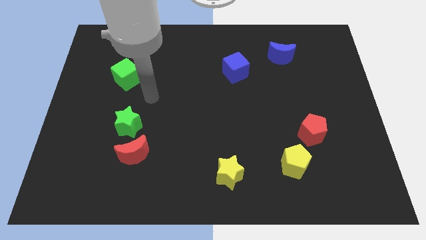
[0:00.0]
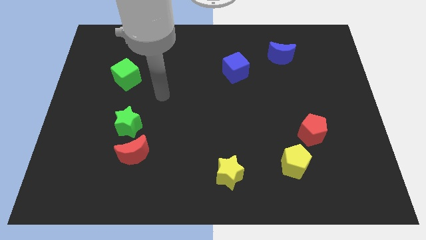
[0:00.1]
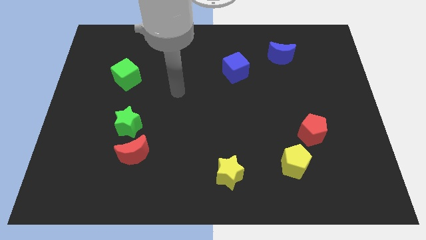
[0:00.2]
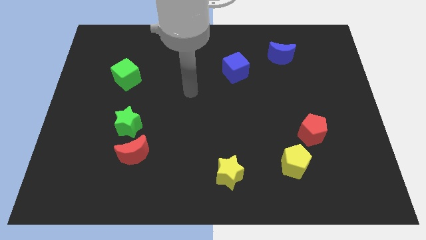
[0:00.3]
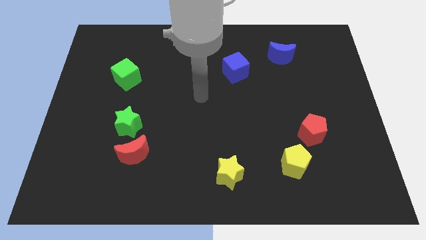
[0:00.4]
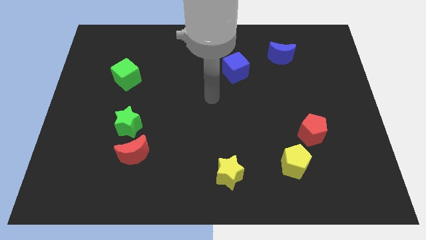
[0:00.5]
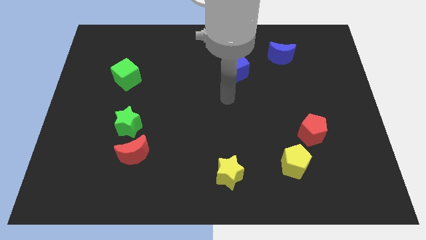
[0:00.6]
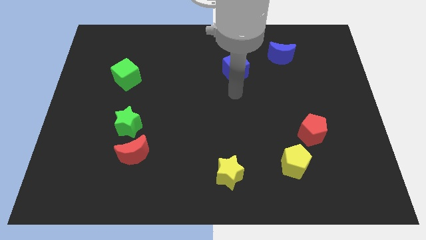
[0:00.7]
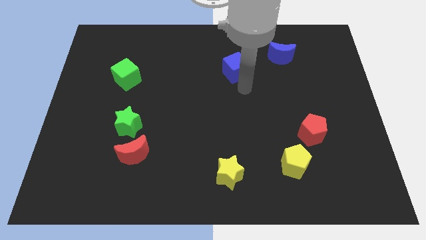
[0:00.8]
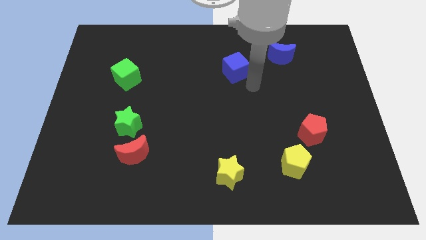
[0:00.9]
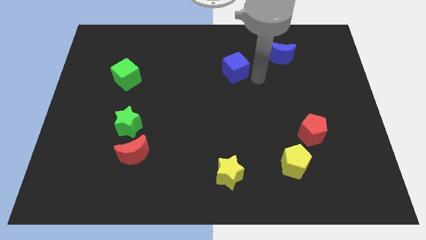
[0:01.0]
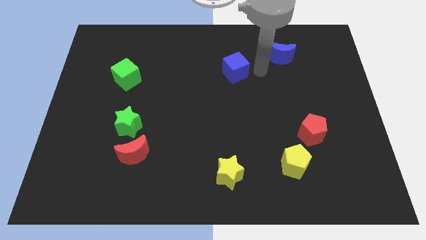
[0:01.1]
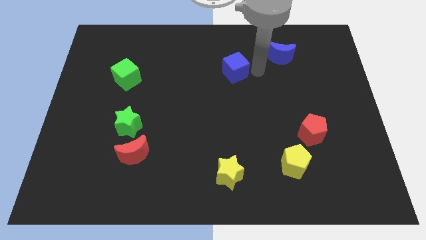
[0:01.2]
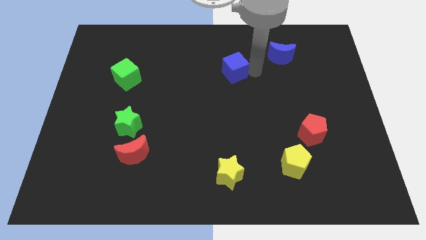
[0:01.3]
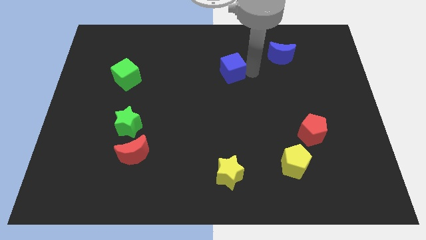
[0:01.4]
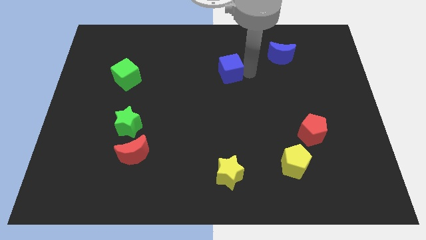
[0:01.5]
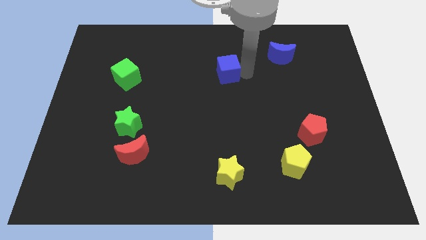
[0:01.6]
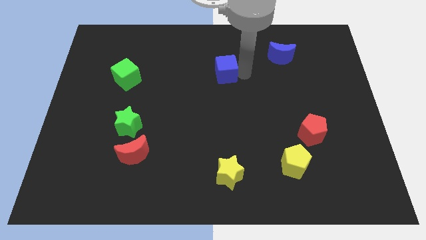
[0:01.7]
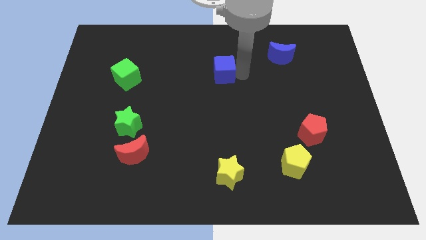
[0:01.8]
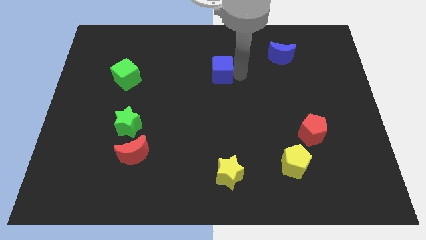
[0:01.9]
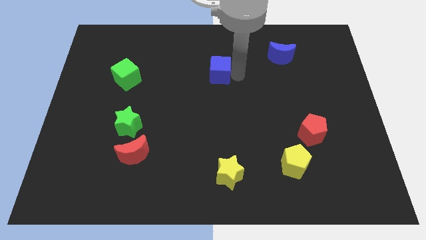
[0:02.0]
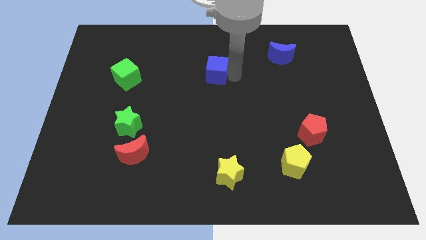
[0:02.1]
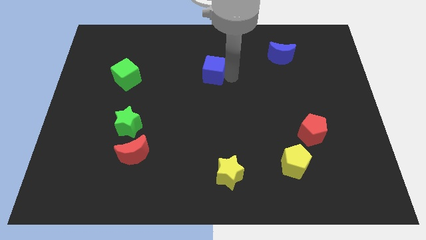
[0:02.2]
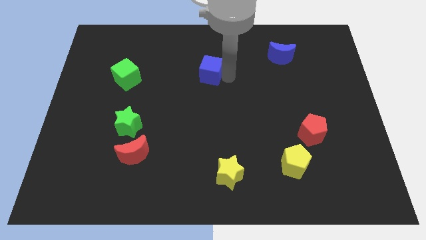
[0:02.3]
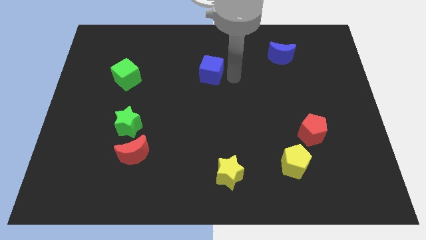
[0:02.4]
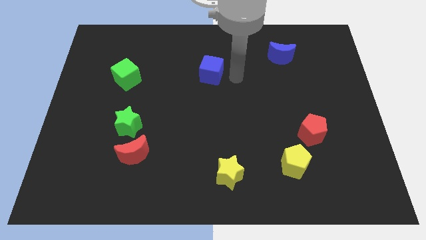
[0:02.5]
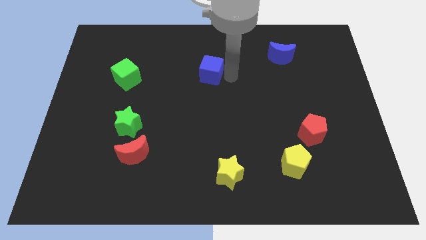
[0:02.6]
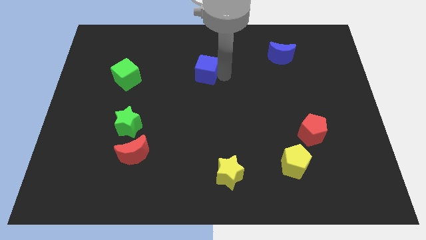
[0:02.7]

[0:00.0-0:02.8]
move the blue cube a little left

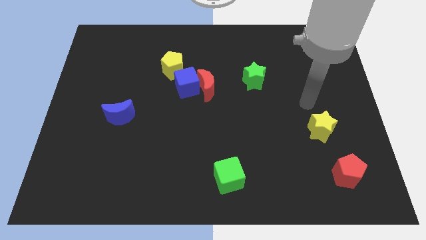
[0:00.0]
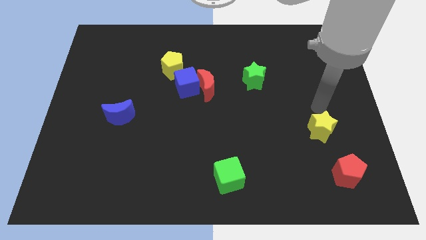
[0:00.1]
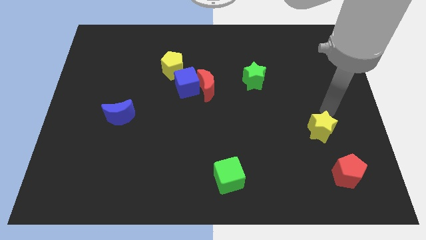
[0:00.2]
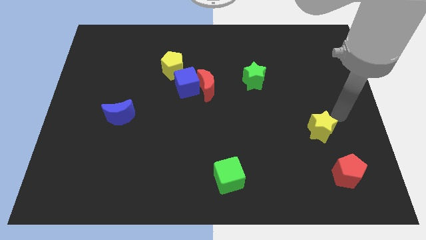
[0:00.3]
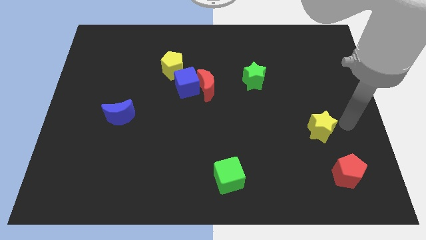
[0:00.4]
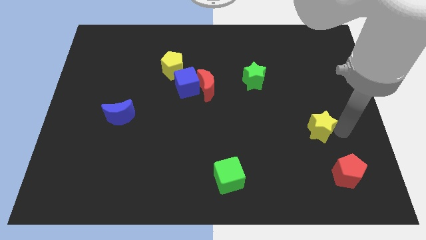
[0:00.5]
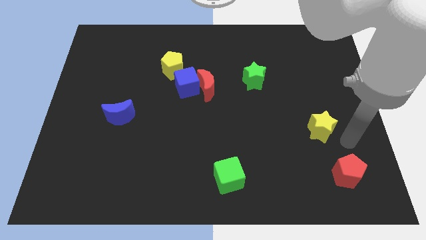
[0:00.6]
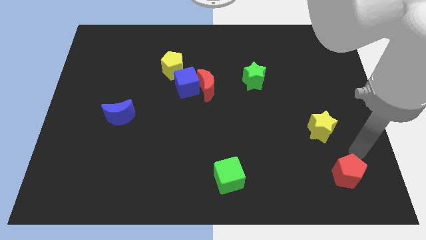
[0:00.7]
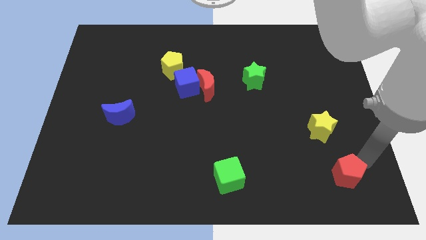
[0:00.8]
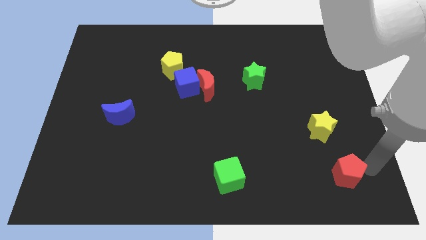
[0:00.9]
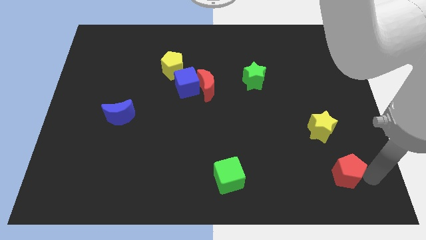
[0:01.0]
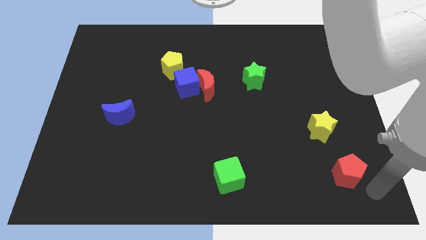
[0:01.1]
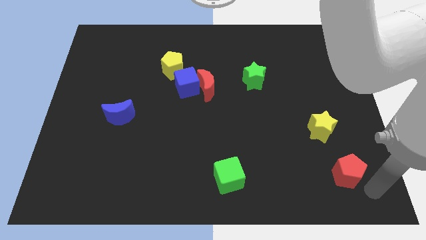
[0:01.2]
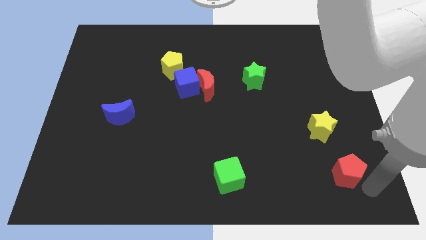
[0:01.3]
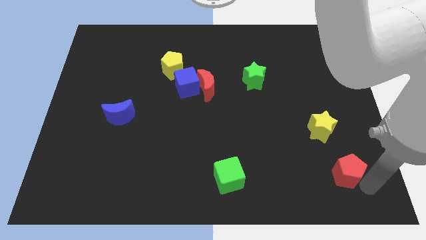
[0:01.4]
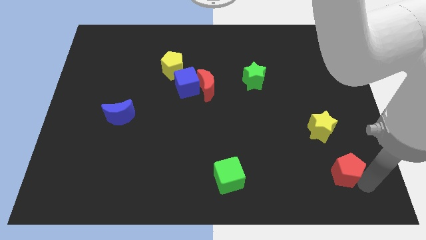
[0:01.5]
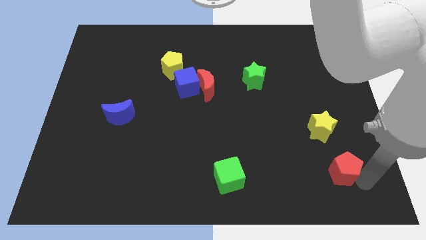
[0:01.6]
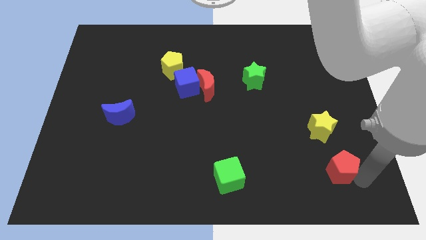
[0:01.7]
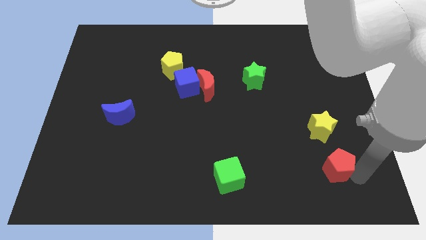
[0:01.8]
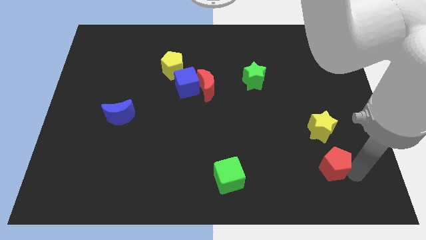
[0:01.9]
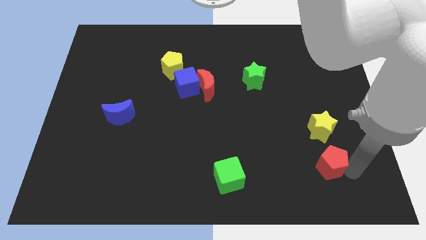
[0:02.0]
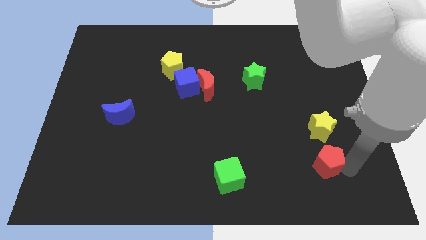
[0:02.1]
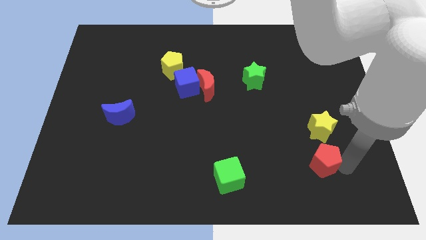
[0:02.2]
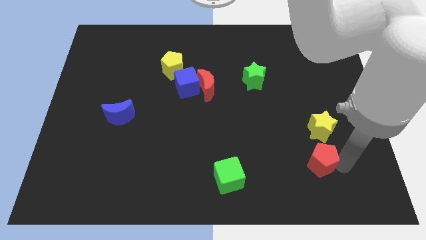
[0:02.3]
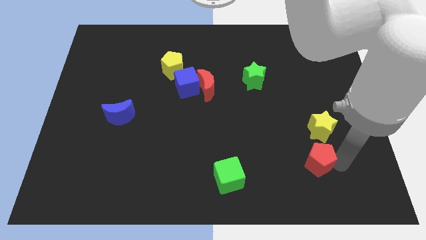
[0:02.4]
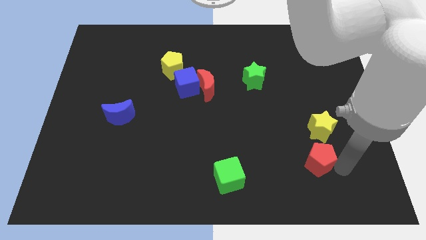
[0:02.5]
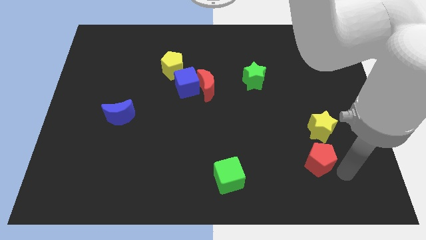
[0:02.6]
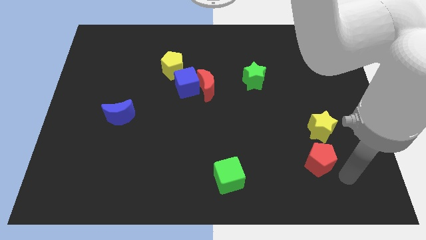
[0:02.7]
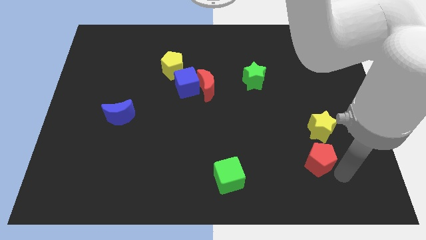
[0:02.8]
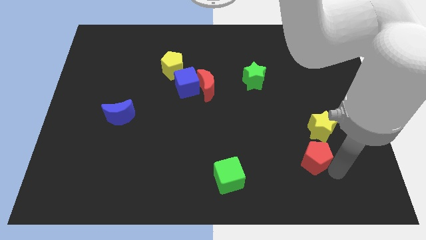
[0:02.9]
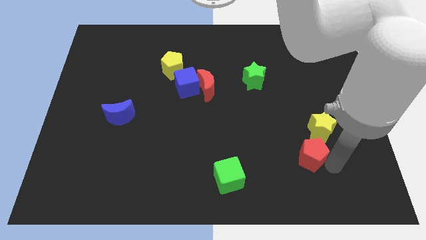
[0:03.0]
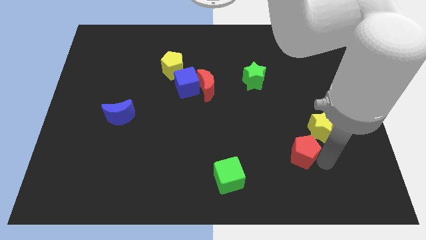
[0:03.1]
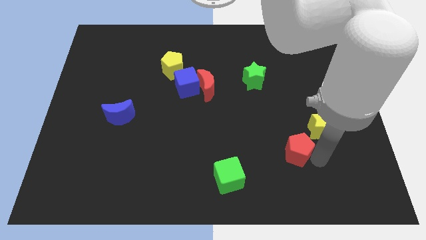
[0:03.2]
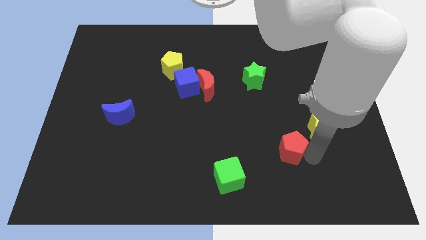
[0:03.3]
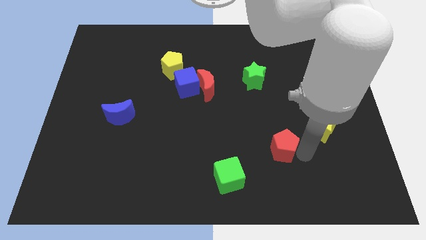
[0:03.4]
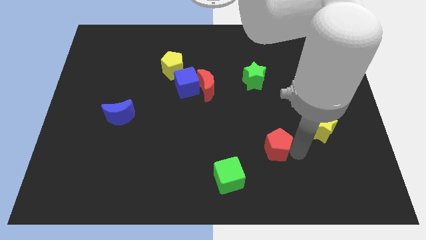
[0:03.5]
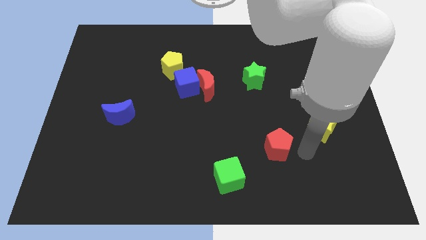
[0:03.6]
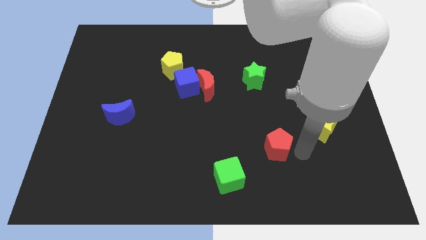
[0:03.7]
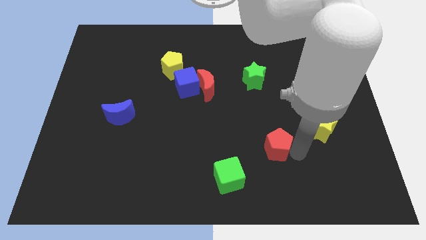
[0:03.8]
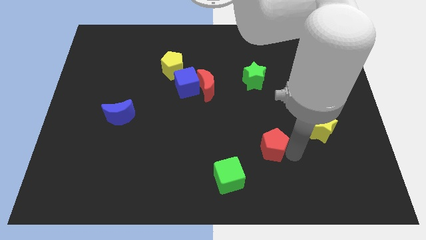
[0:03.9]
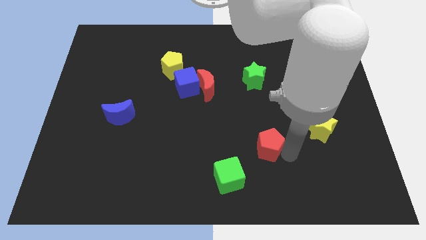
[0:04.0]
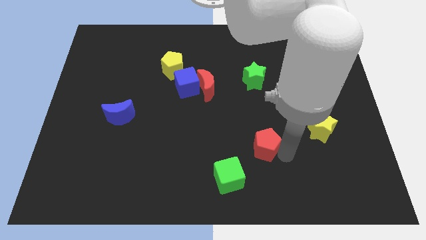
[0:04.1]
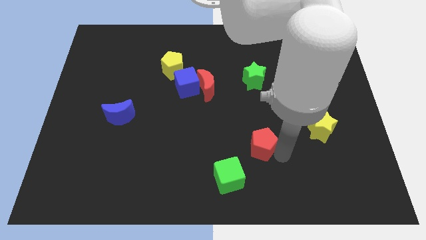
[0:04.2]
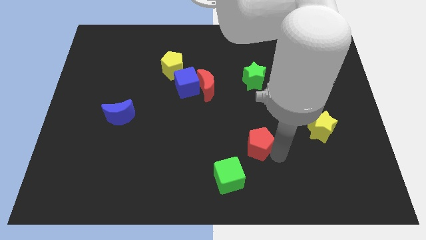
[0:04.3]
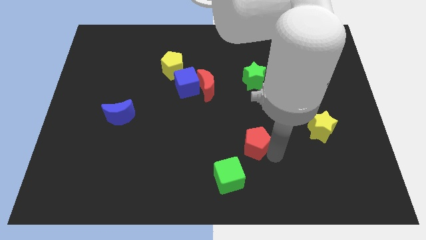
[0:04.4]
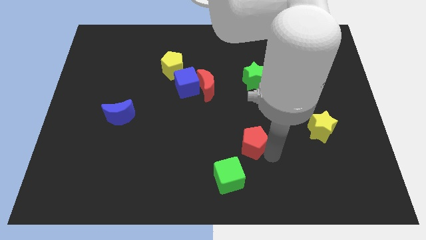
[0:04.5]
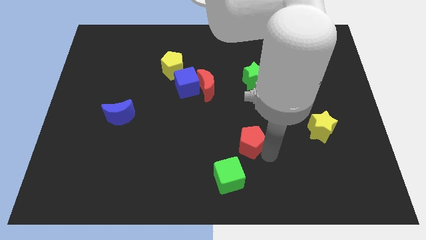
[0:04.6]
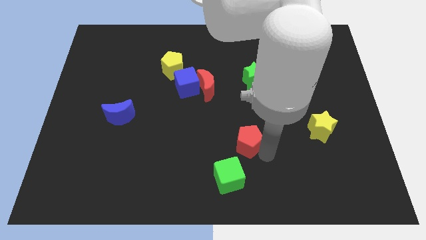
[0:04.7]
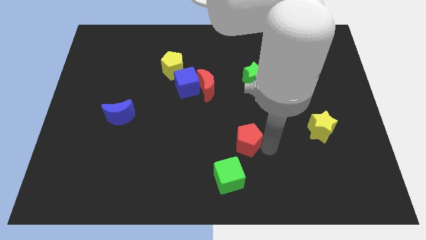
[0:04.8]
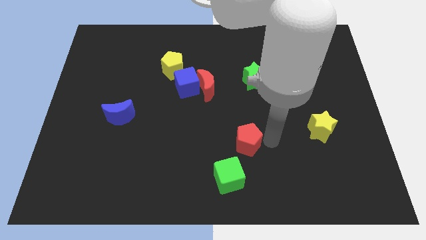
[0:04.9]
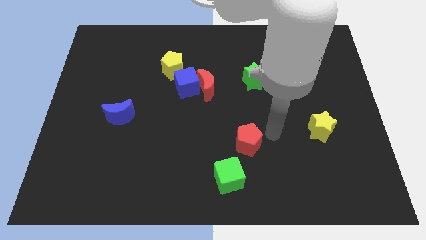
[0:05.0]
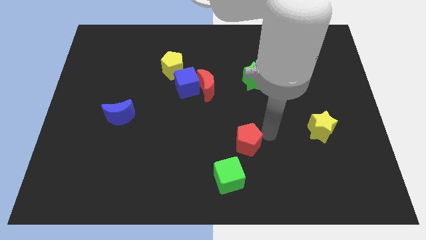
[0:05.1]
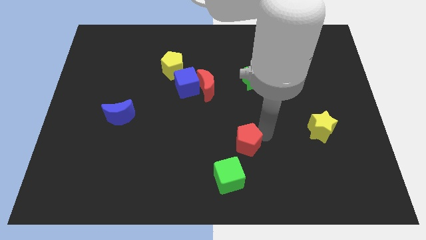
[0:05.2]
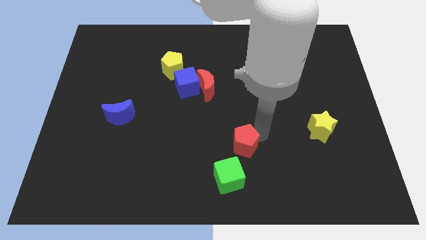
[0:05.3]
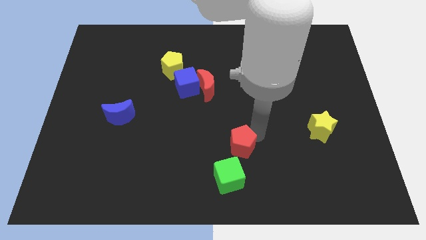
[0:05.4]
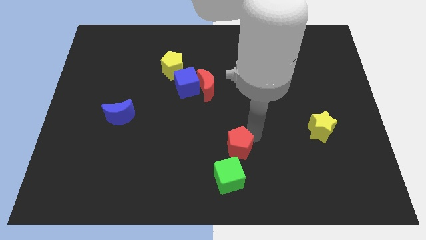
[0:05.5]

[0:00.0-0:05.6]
push the red pentagon to the left

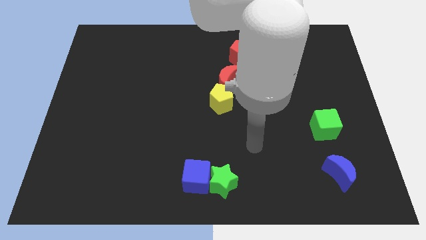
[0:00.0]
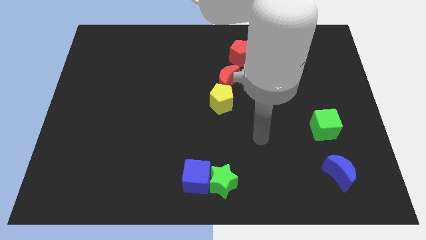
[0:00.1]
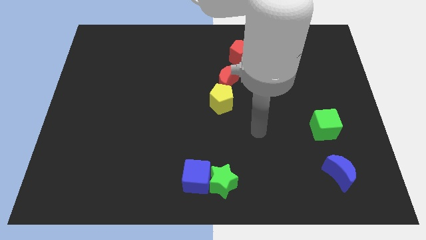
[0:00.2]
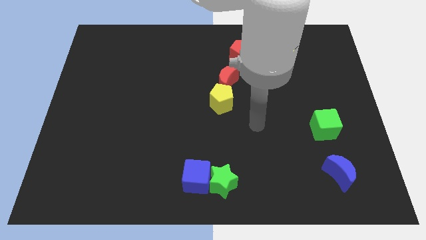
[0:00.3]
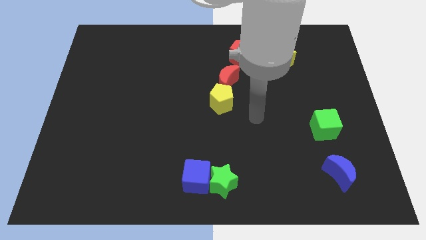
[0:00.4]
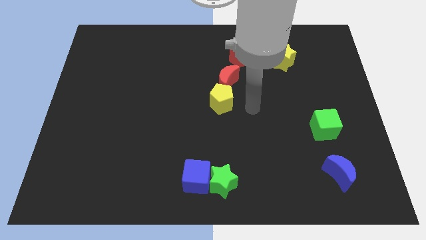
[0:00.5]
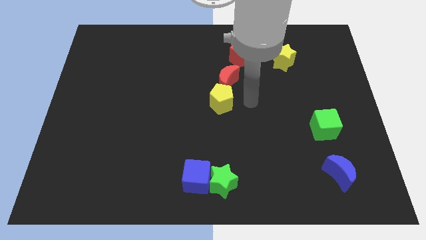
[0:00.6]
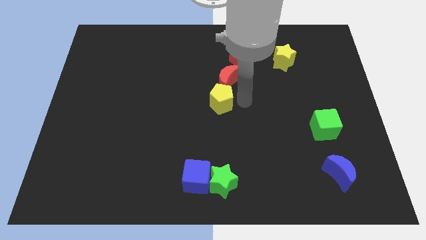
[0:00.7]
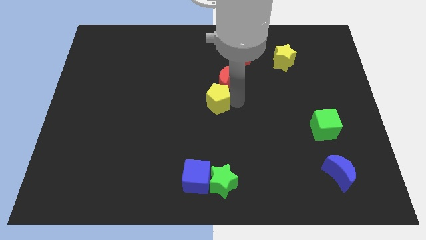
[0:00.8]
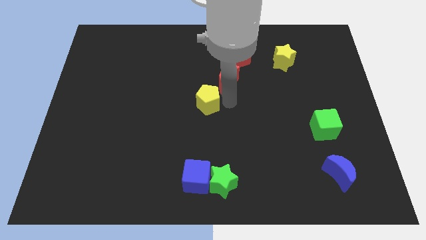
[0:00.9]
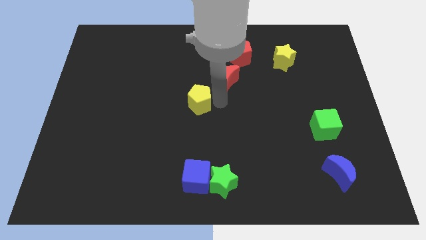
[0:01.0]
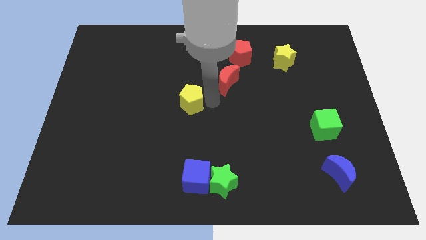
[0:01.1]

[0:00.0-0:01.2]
move the yellow pentagon left slightly
